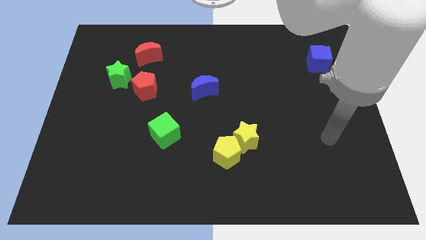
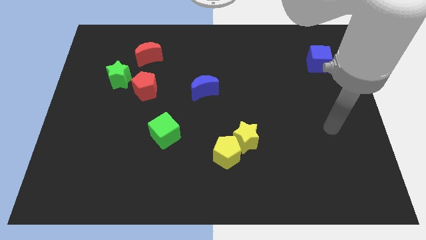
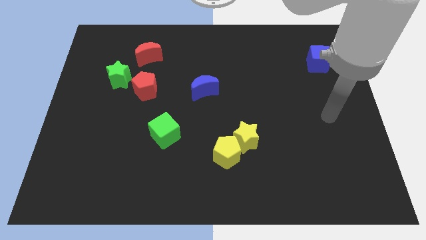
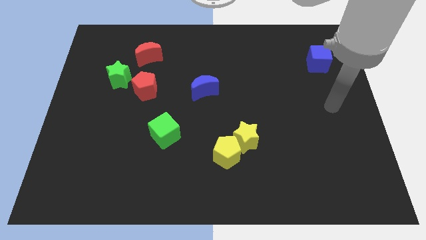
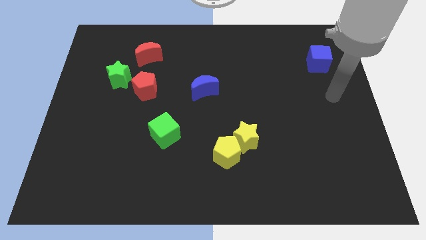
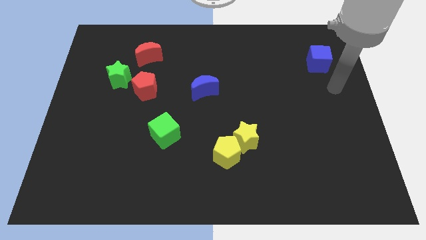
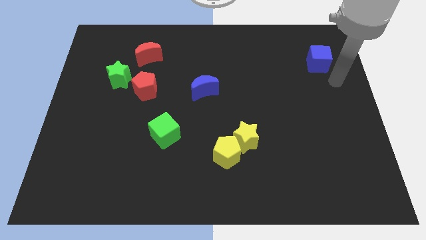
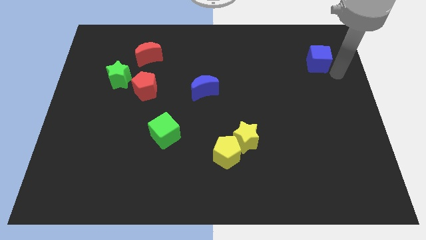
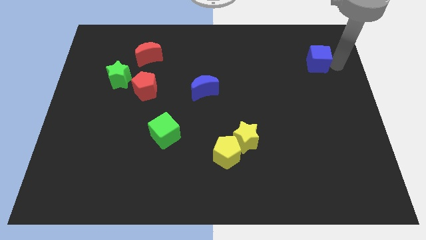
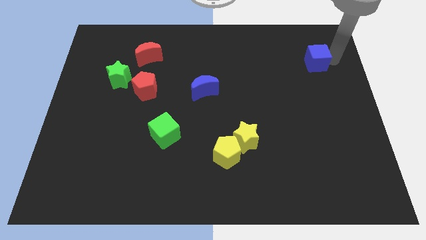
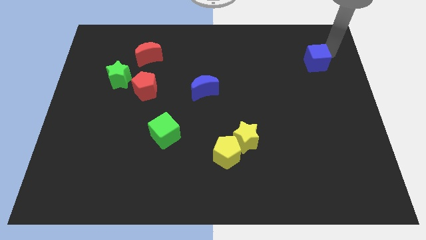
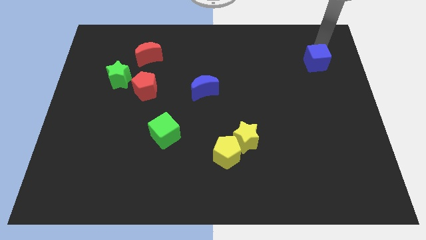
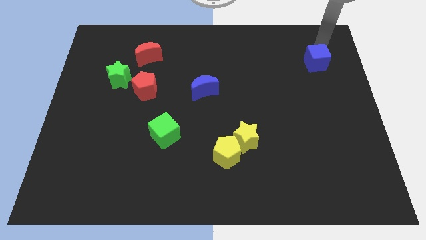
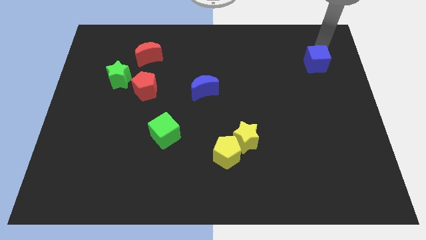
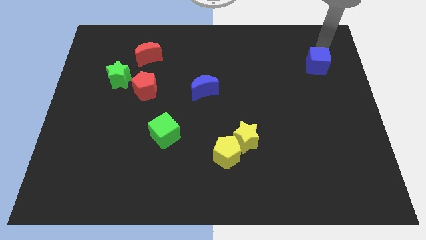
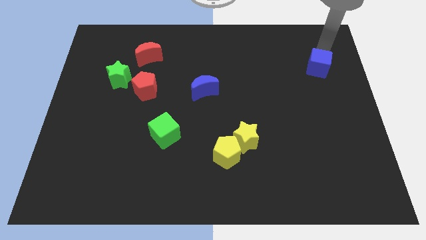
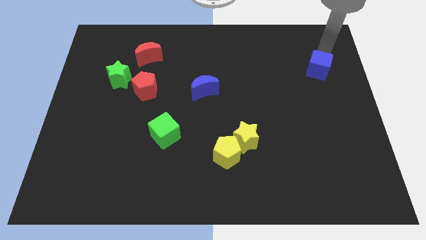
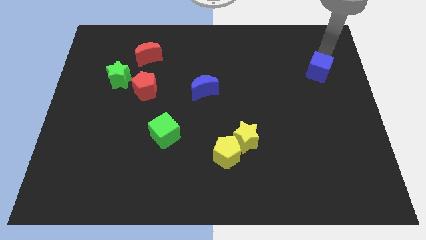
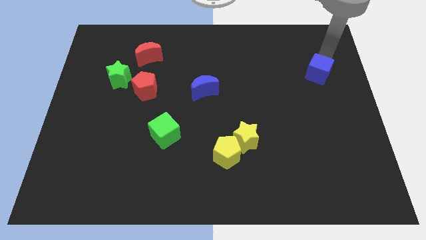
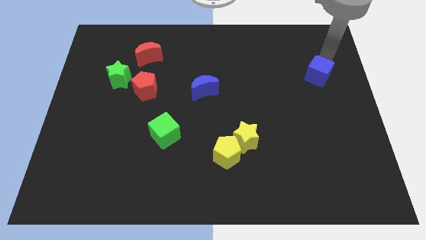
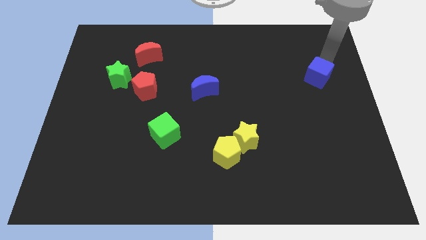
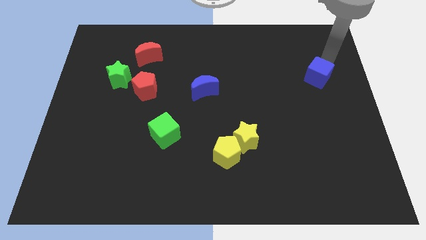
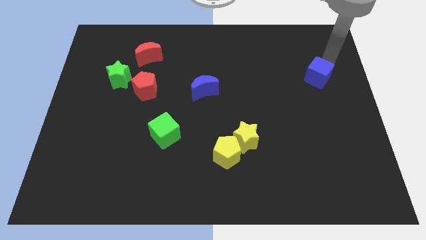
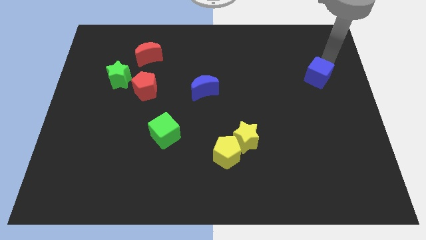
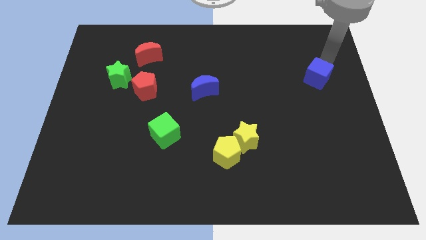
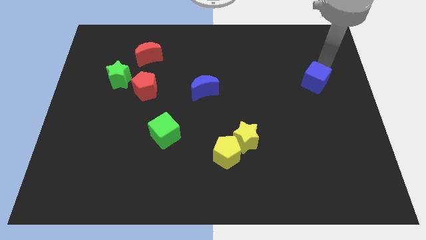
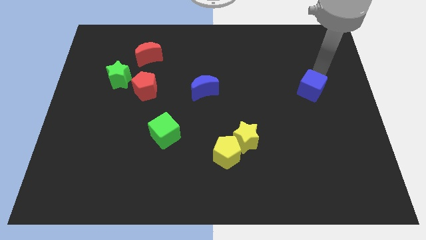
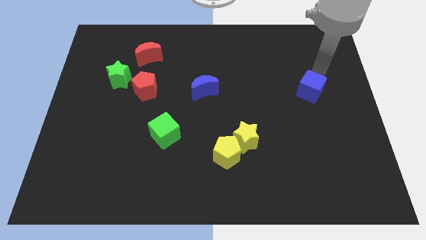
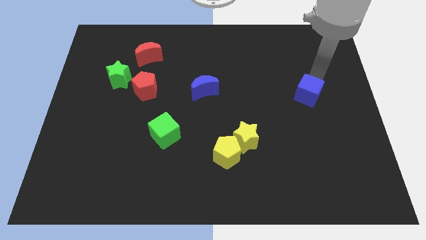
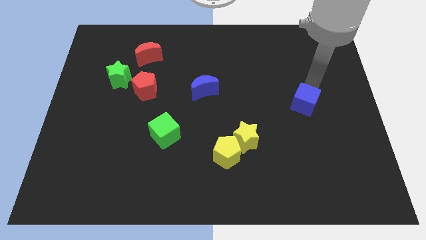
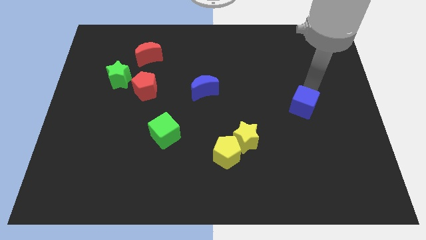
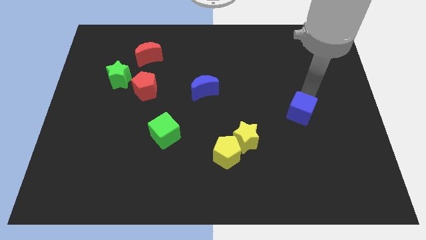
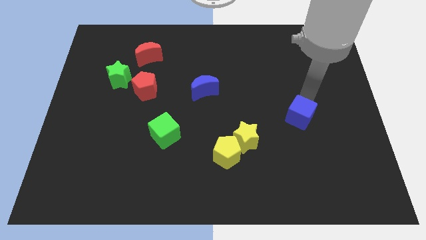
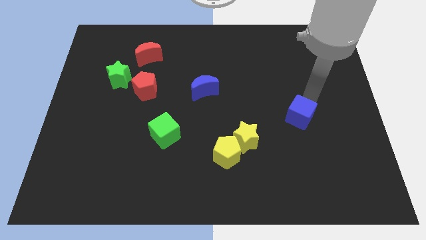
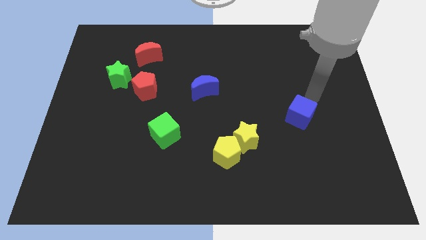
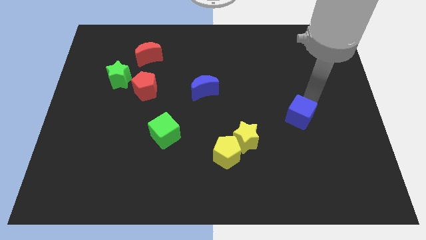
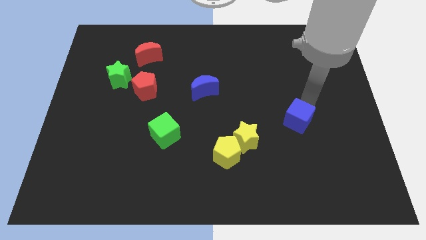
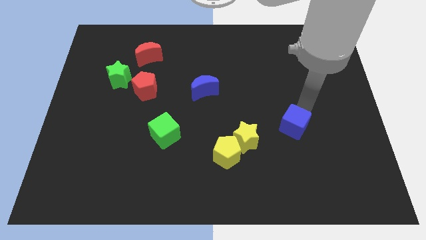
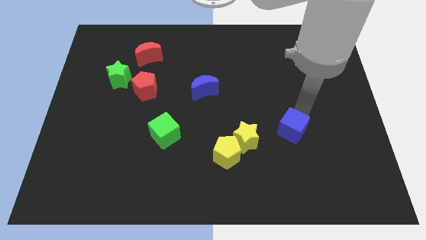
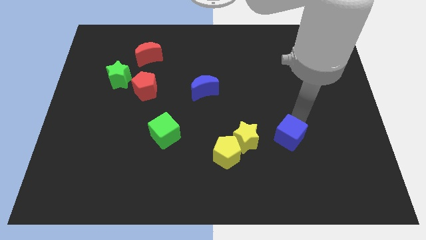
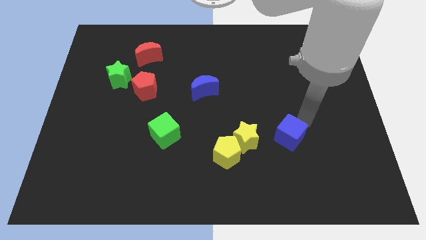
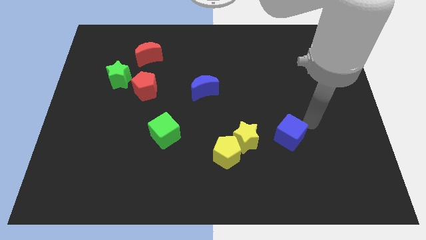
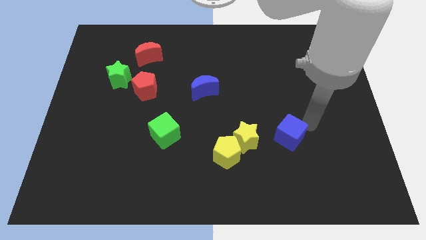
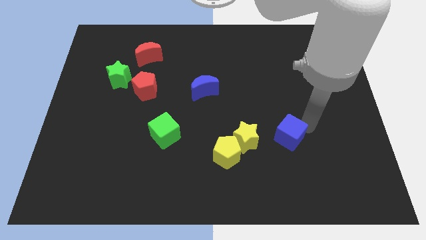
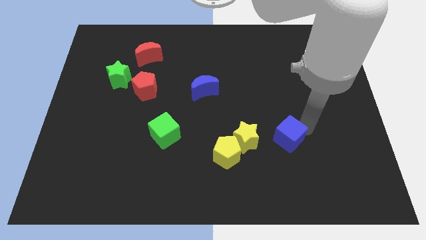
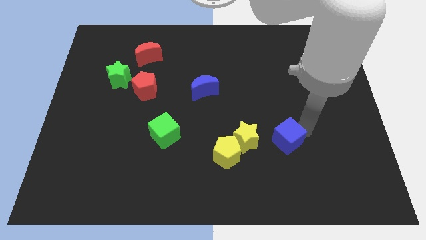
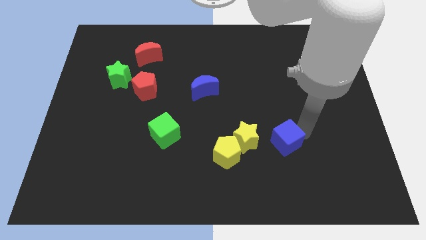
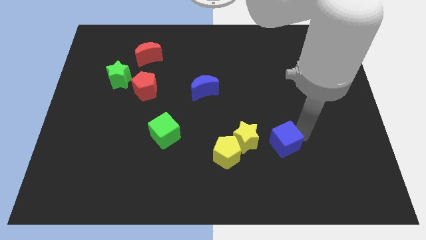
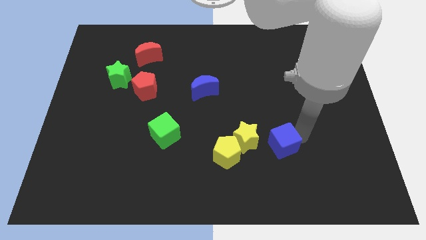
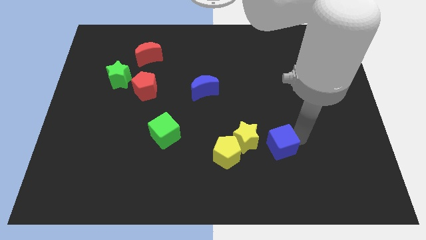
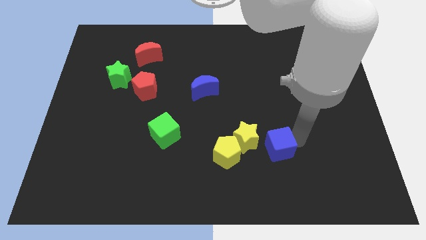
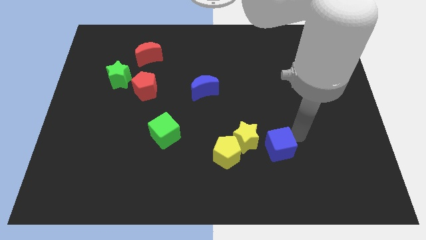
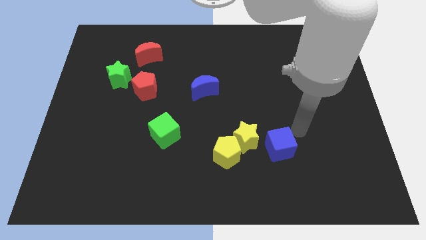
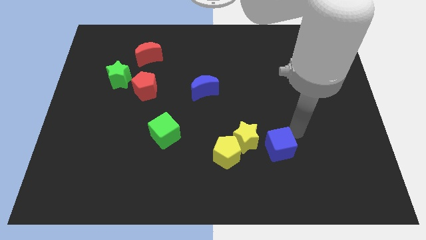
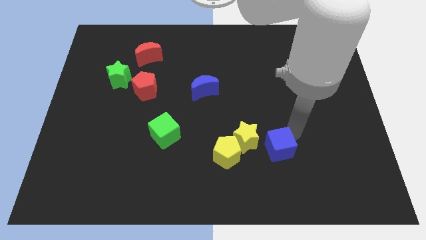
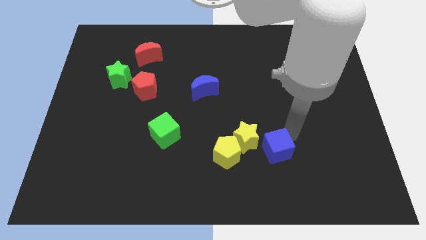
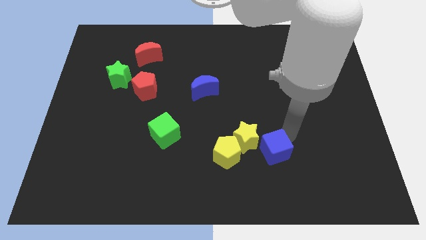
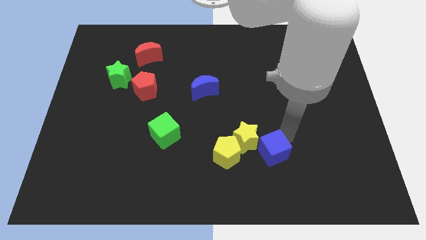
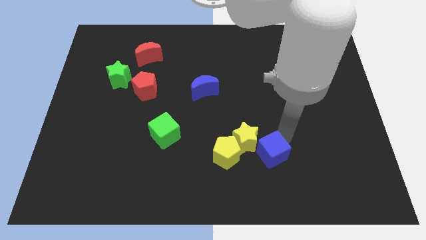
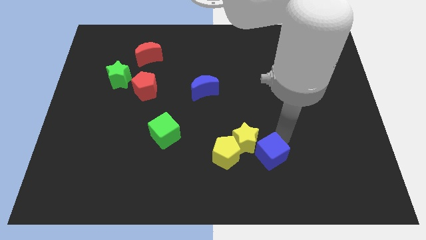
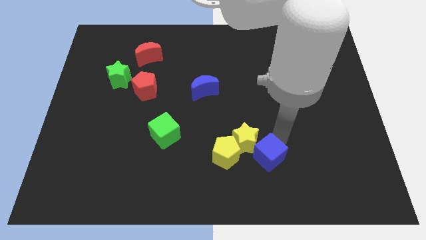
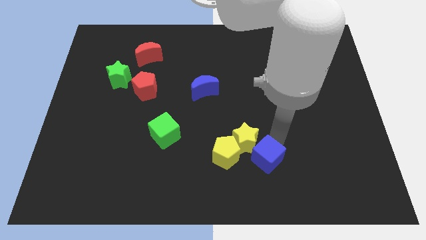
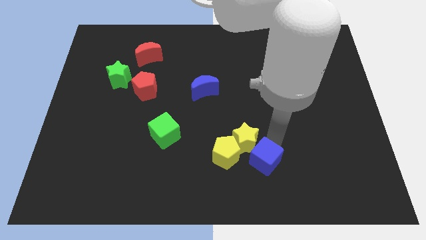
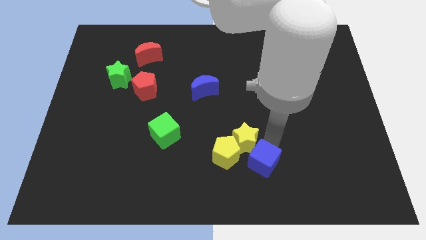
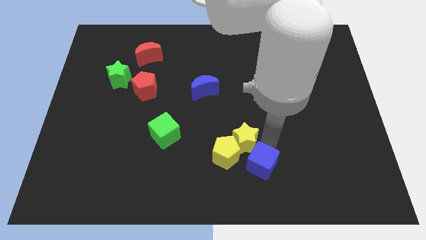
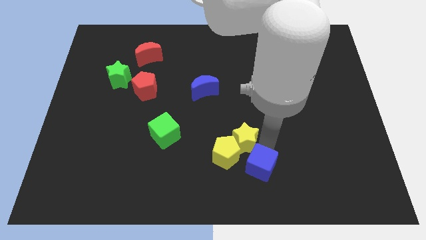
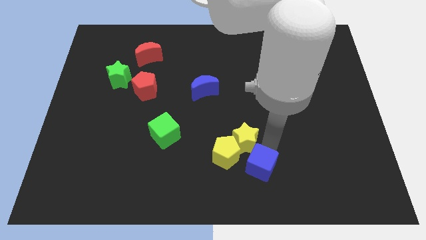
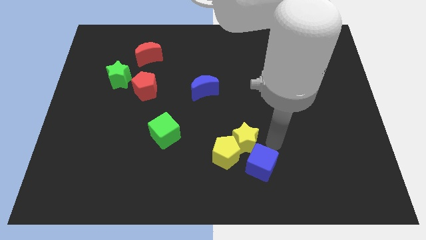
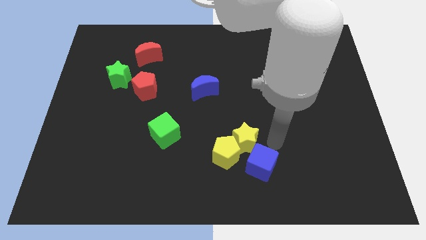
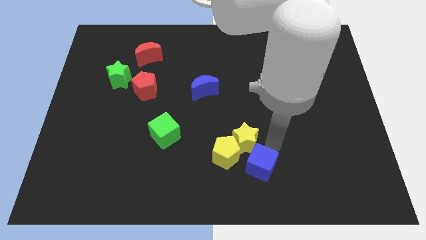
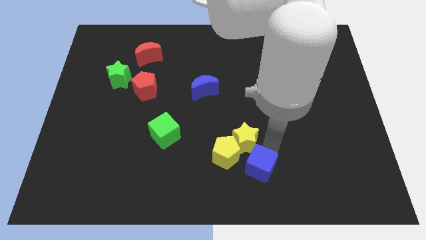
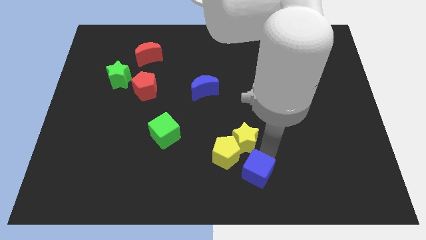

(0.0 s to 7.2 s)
push the blue cube to the bottom side
